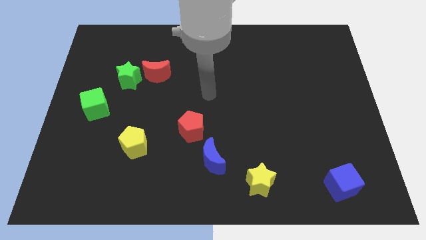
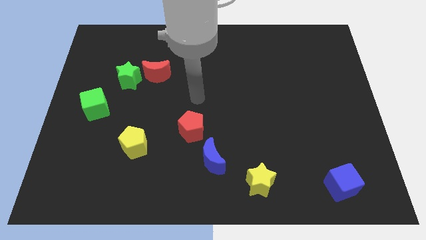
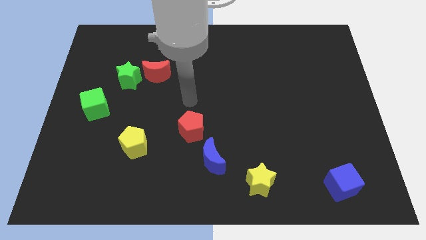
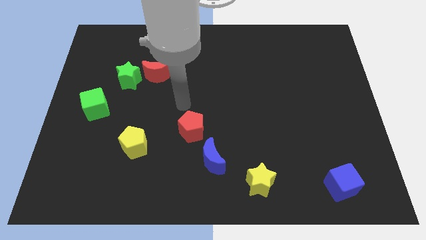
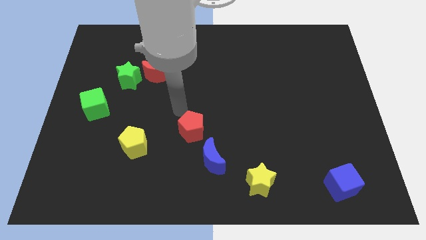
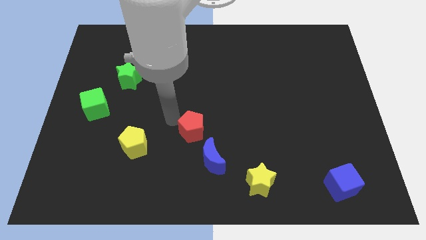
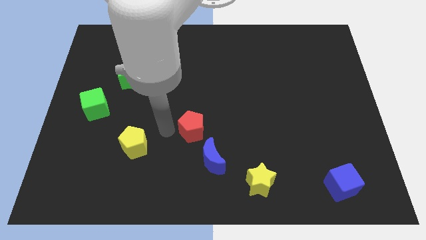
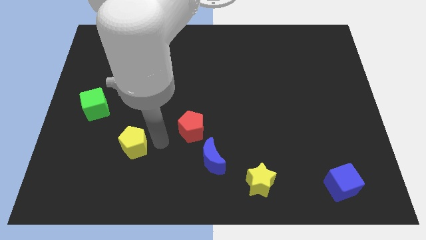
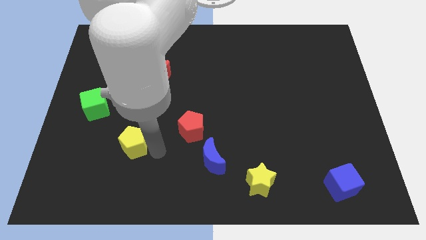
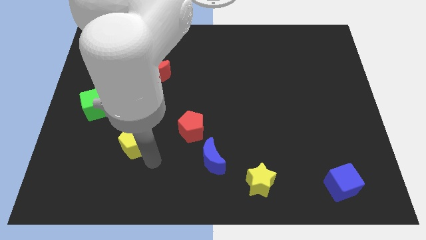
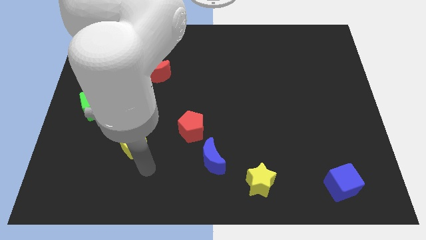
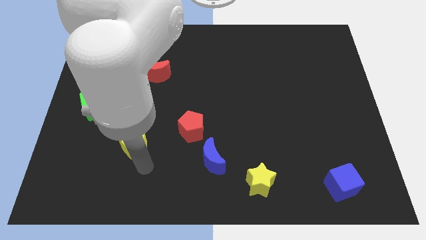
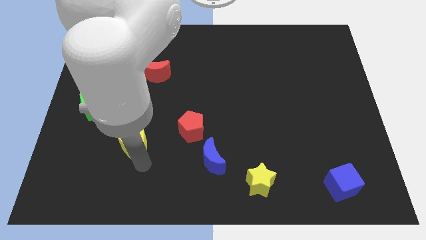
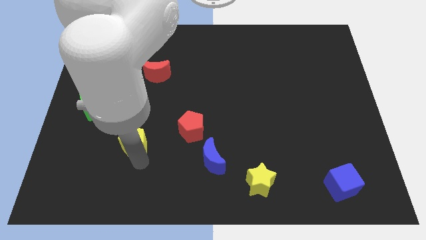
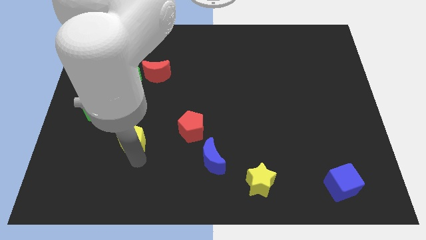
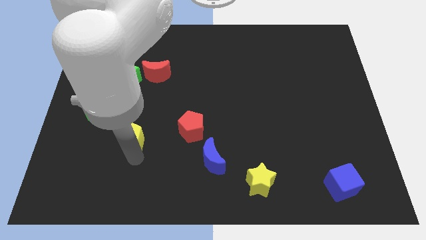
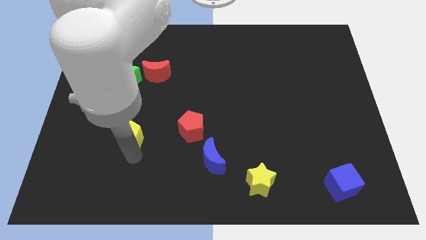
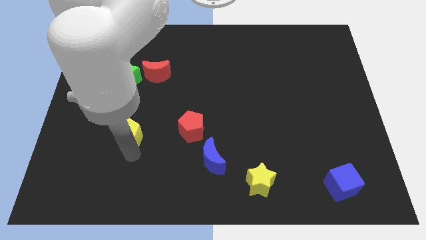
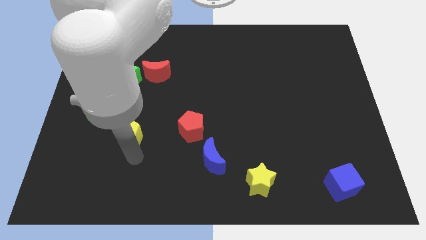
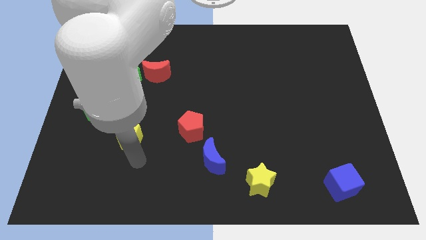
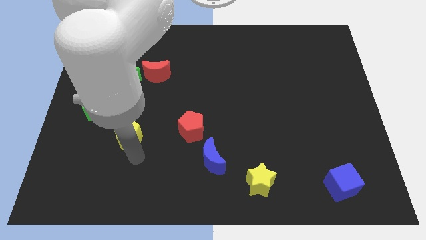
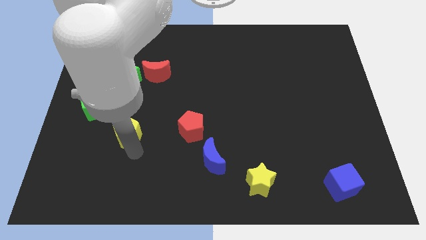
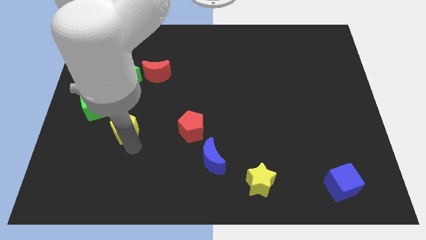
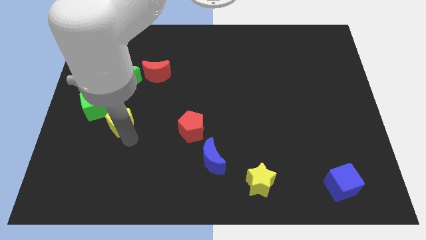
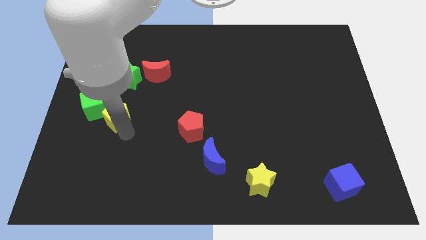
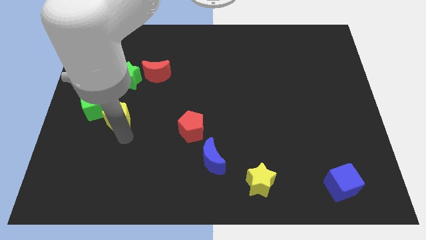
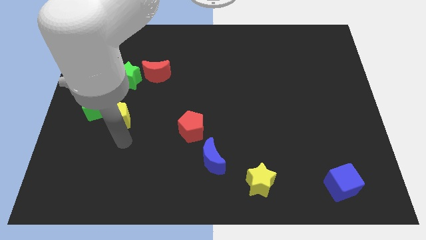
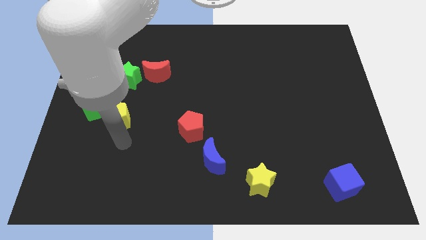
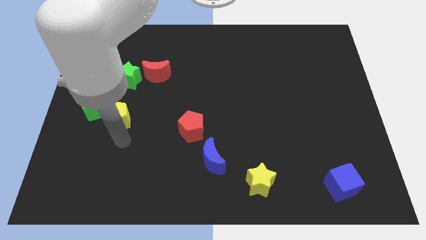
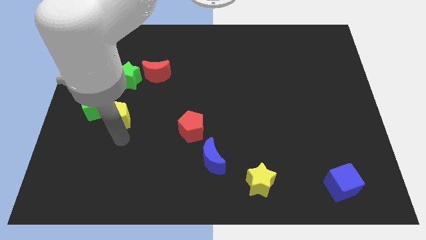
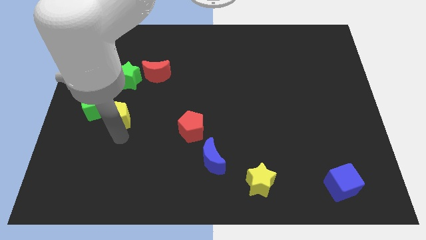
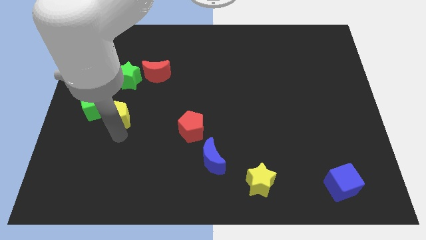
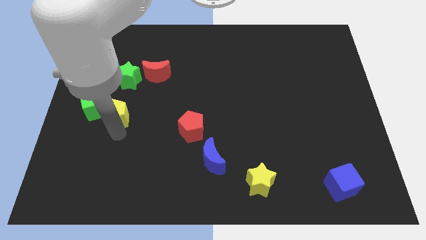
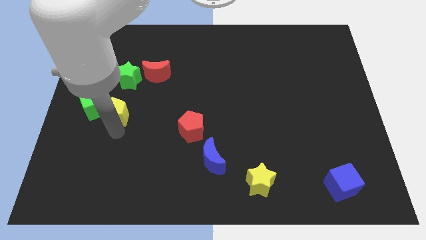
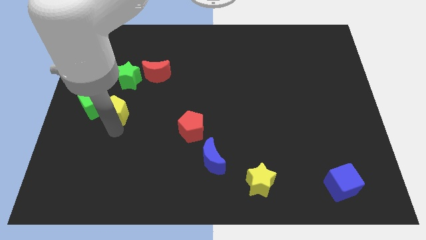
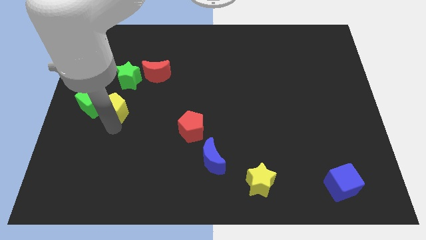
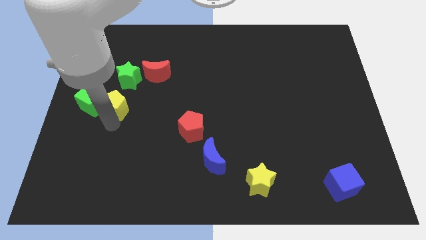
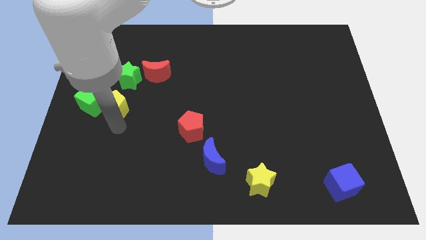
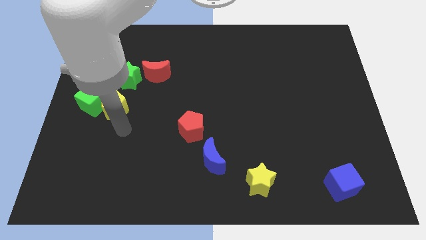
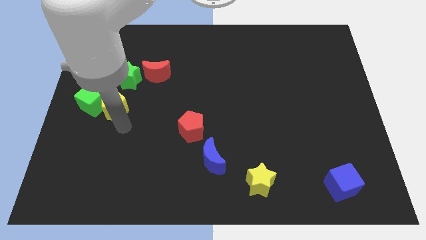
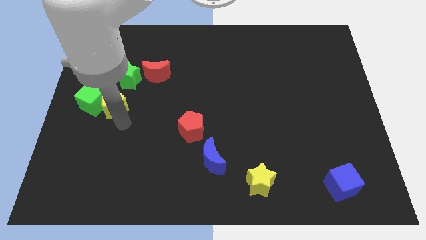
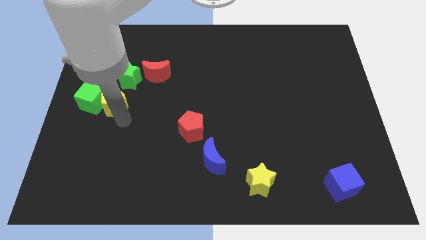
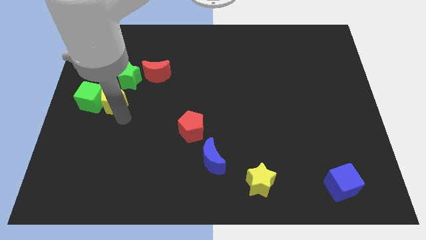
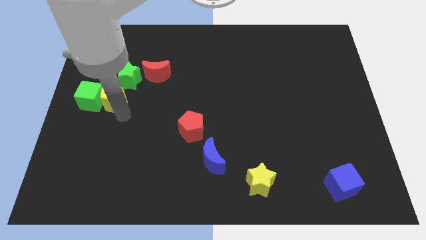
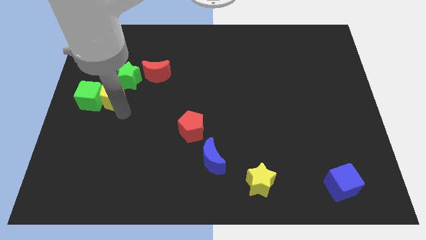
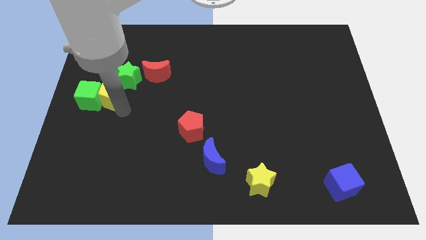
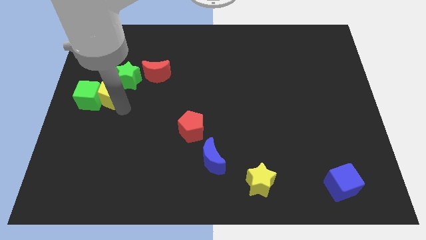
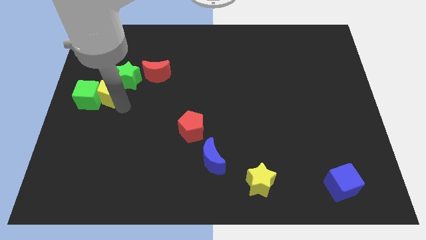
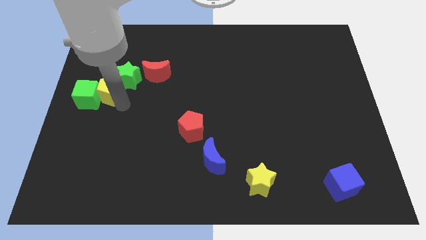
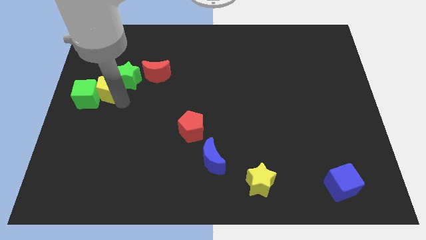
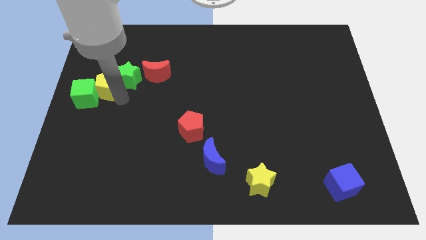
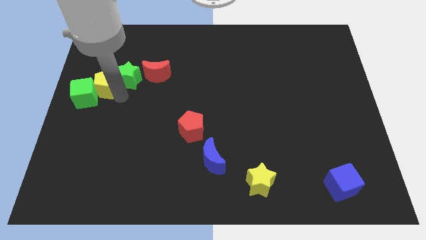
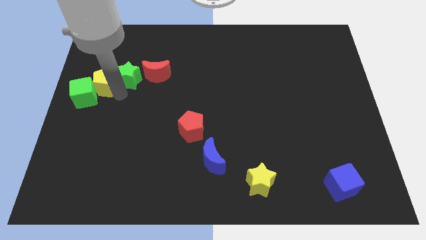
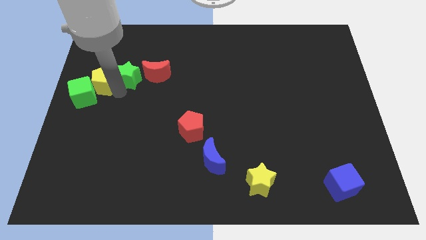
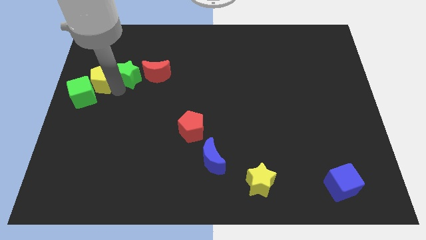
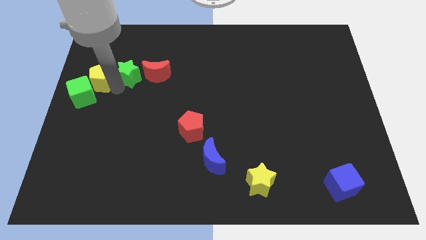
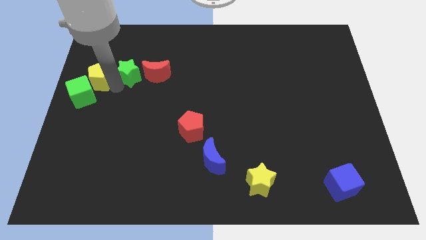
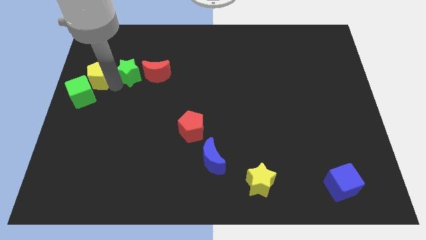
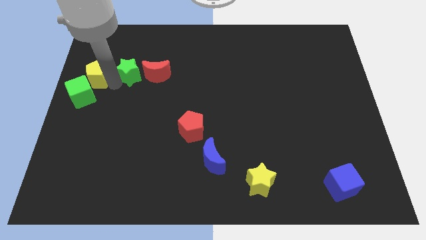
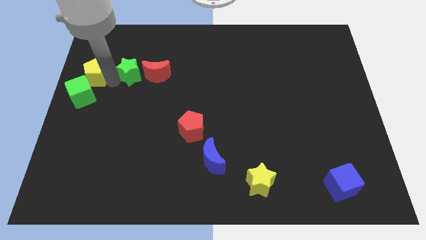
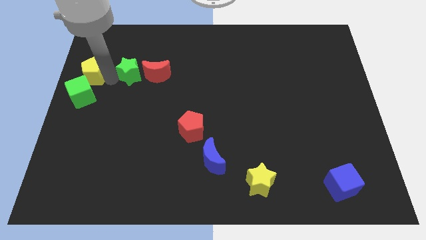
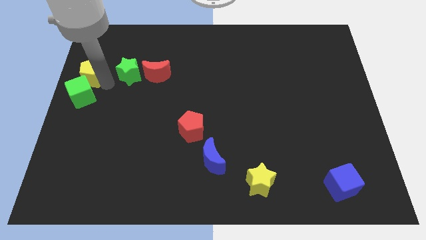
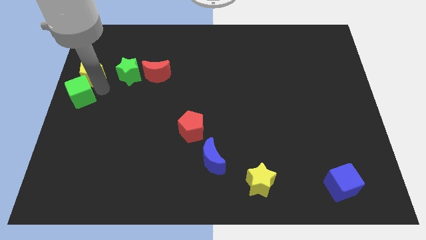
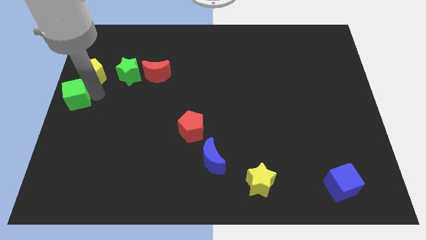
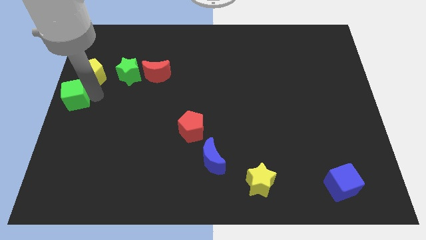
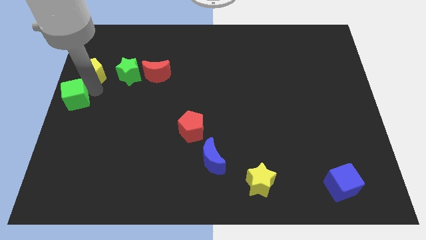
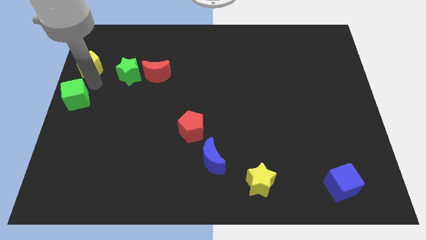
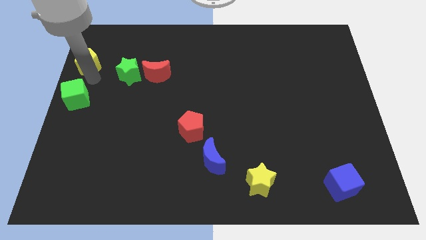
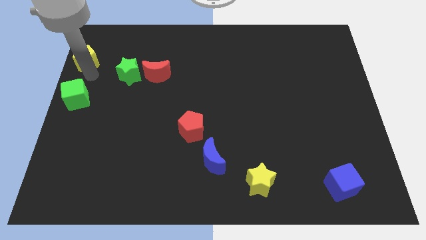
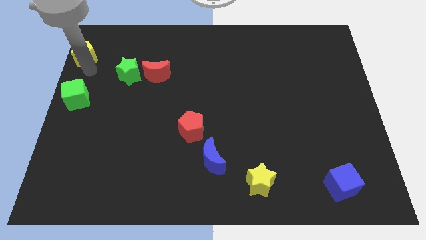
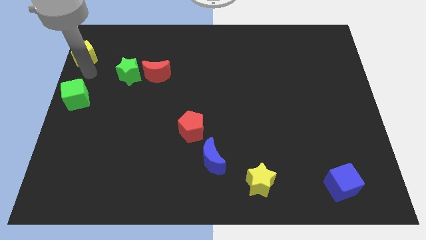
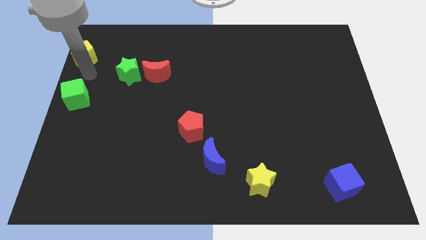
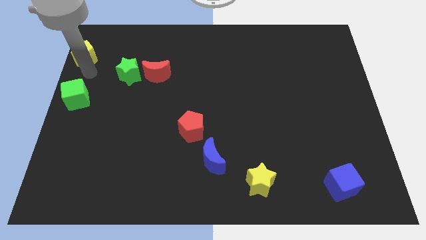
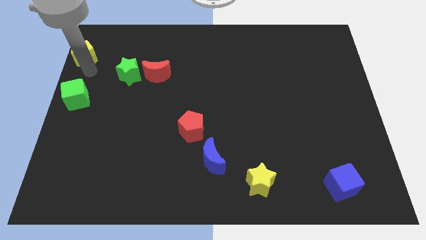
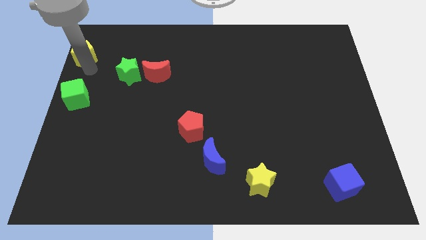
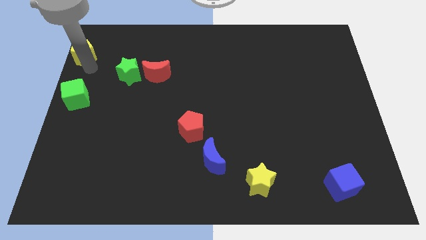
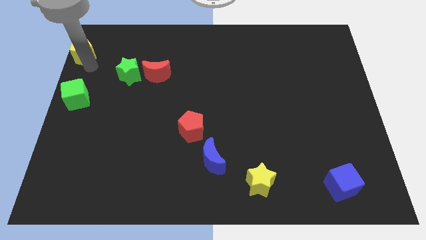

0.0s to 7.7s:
slide the yellow pentagon to the top left corner
